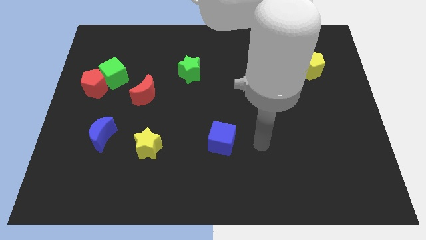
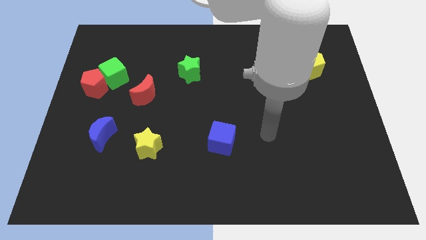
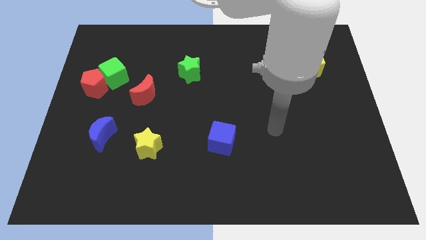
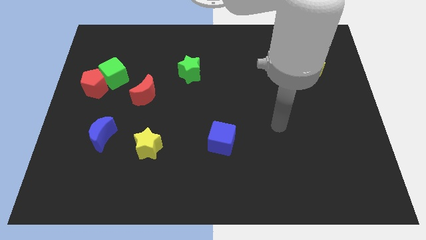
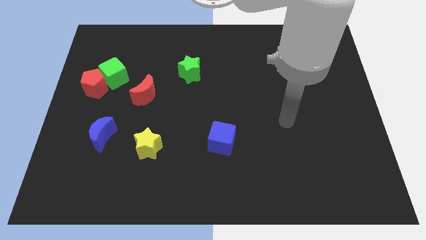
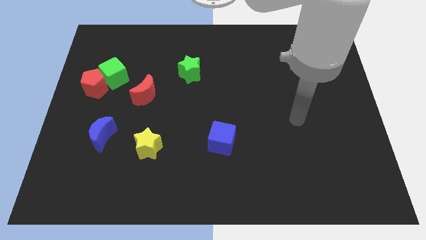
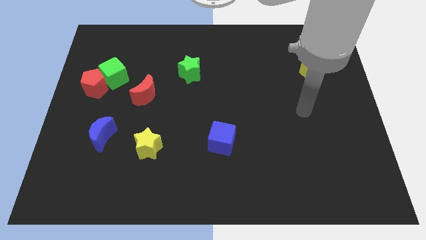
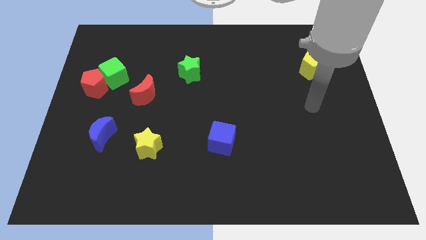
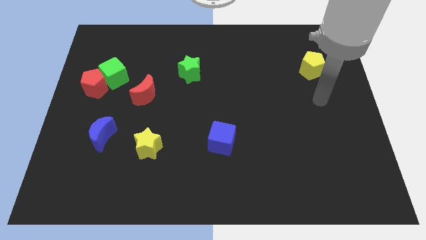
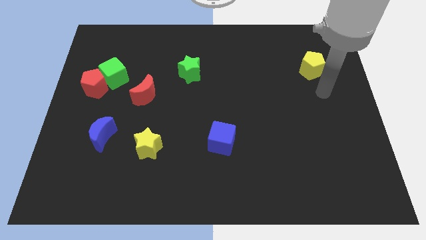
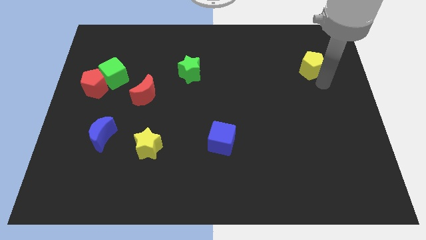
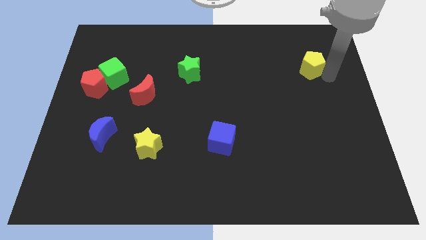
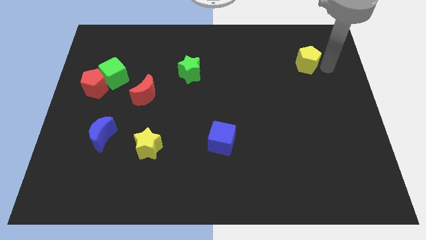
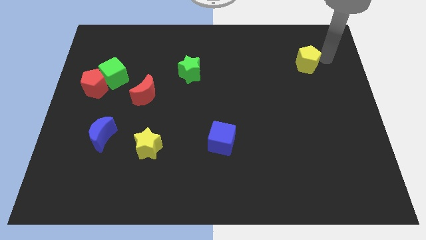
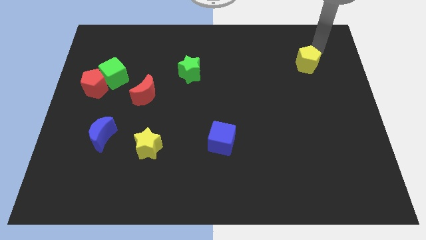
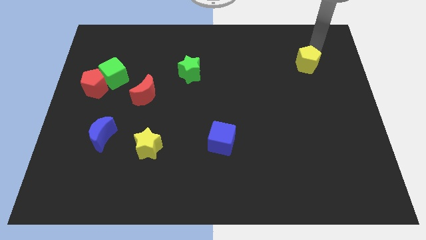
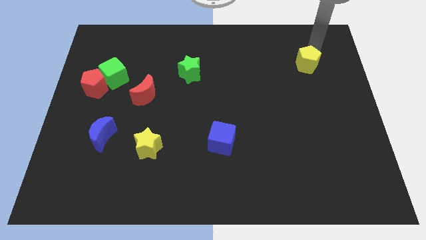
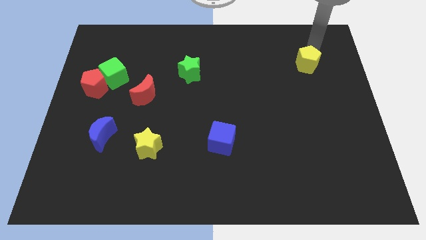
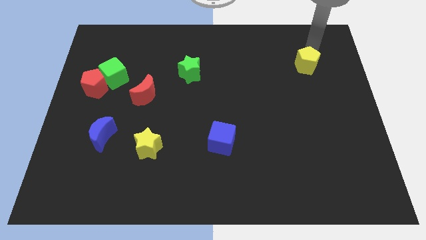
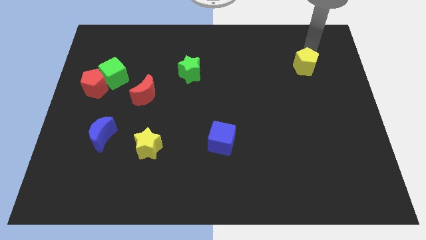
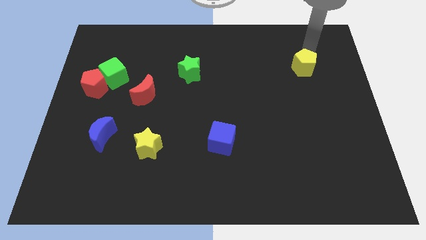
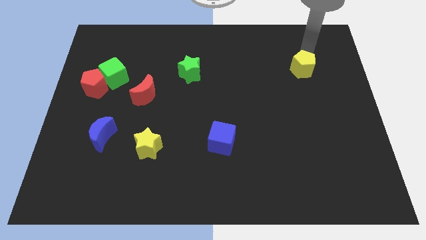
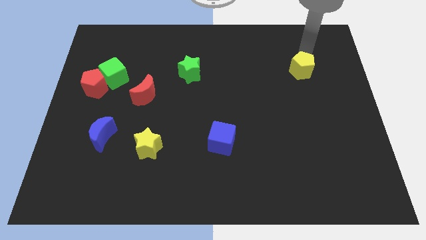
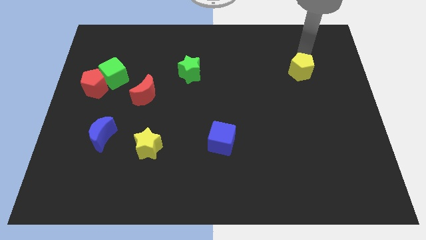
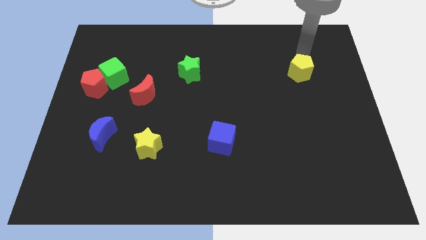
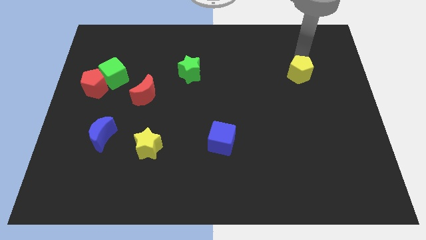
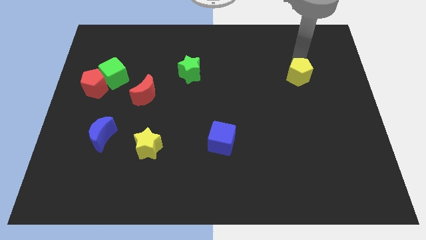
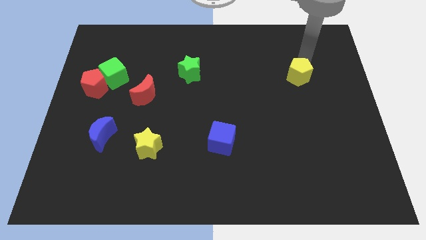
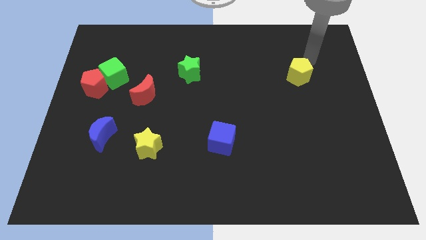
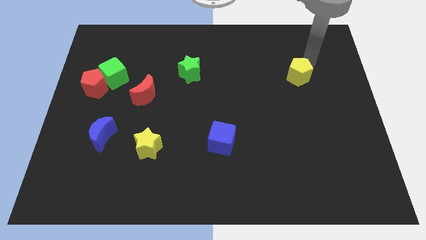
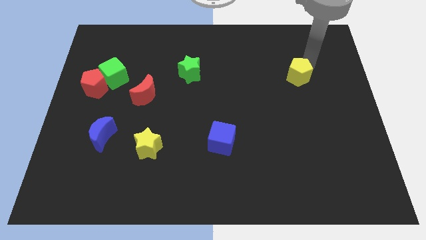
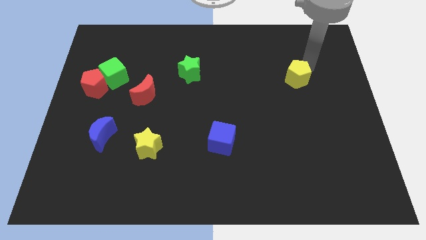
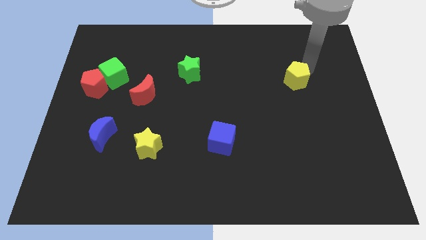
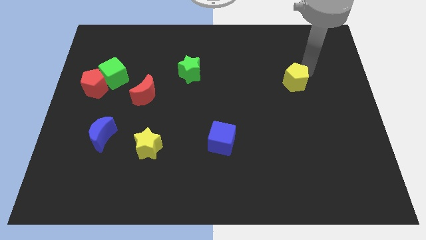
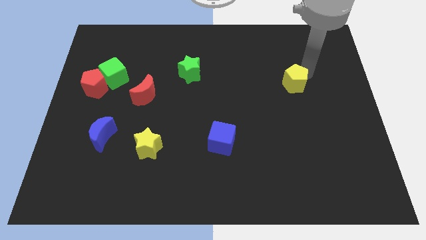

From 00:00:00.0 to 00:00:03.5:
slightly move the yellow pentagon diagonally down and left

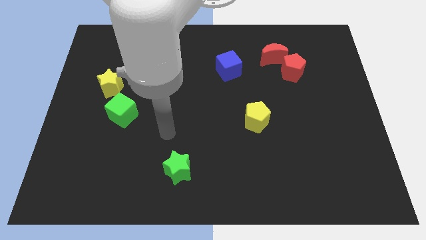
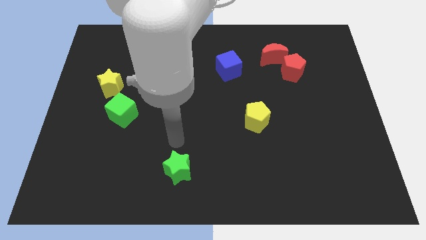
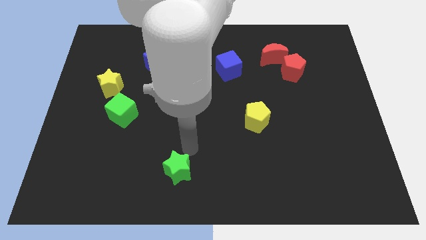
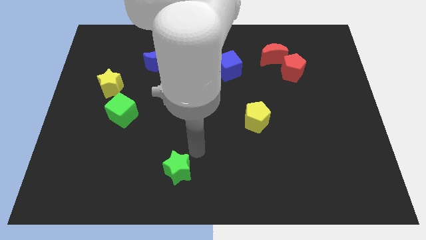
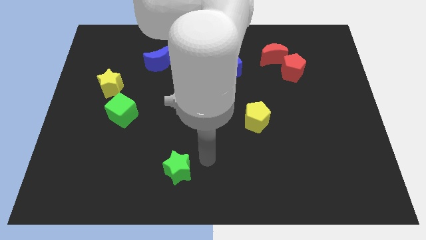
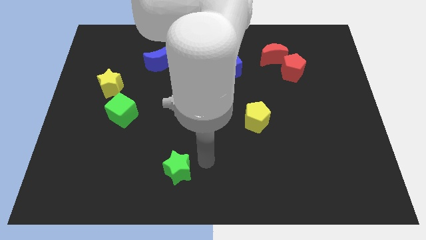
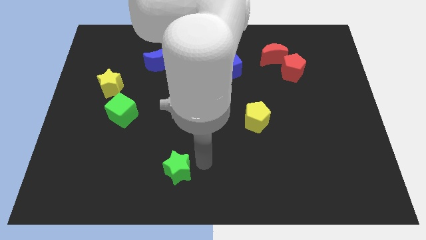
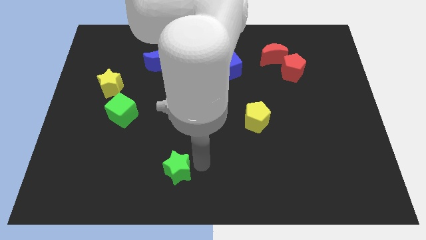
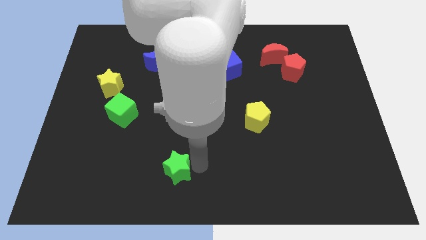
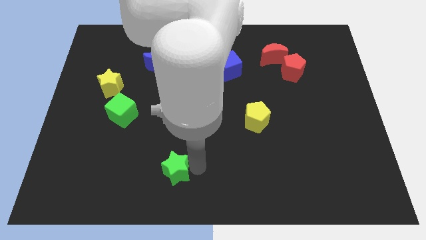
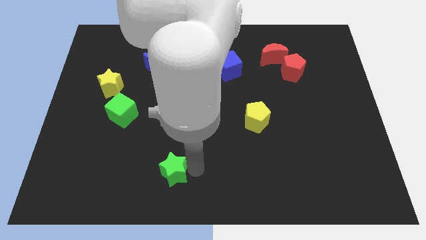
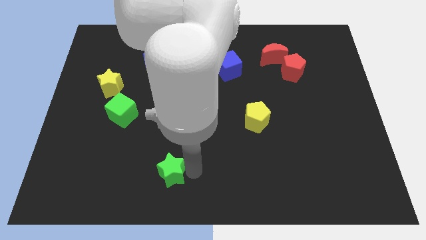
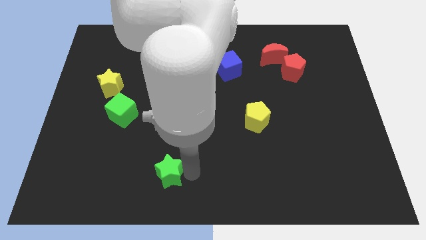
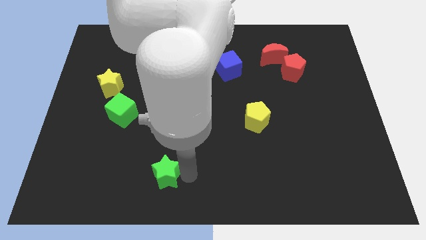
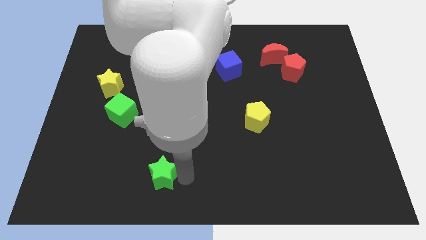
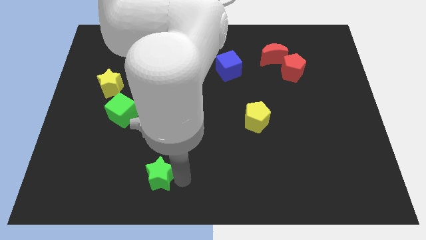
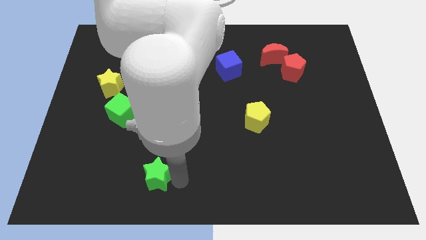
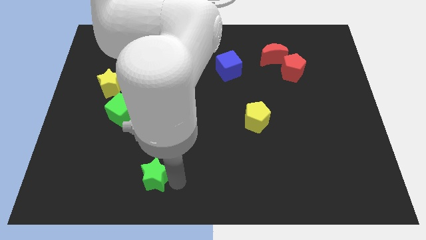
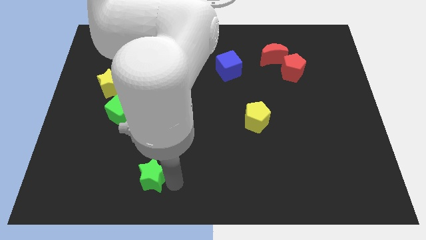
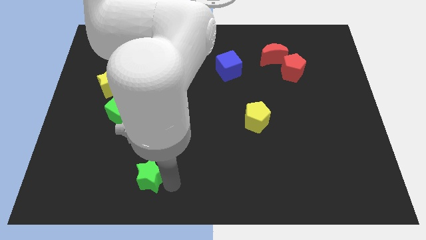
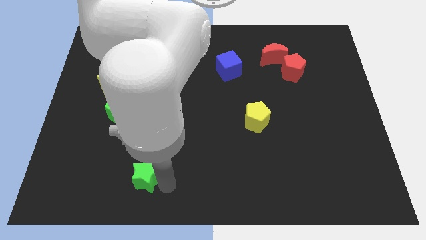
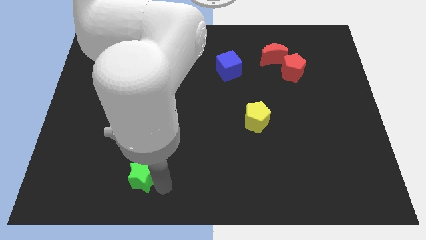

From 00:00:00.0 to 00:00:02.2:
slide the green star a bit to the left

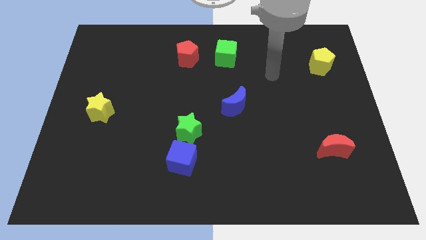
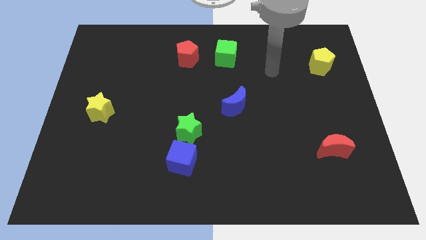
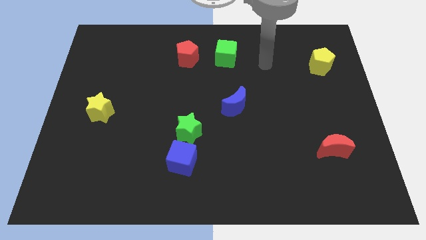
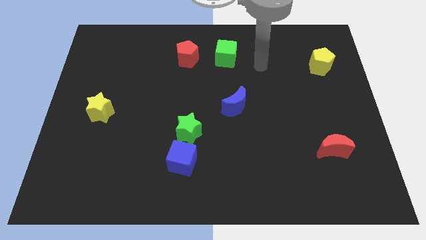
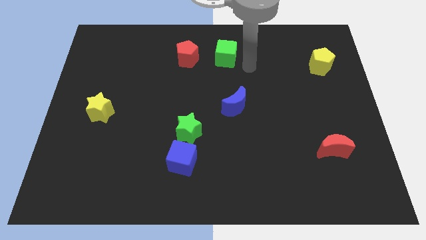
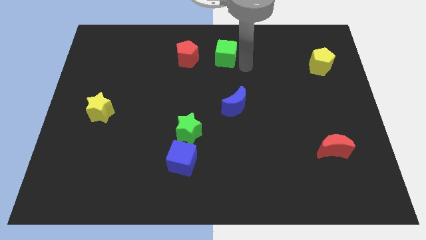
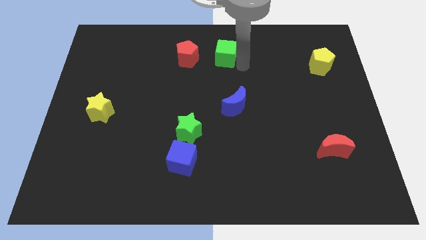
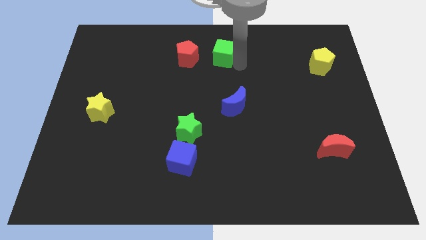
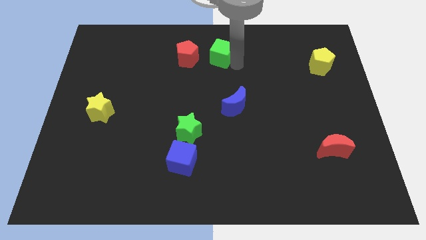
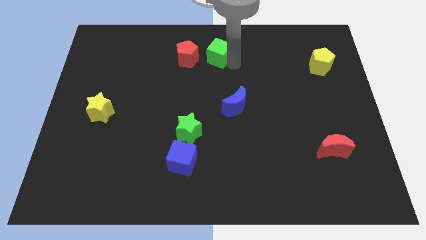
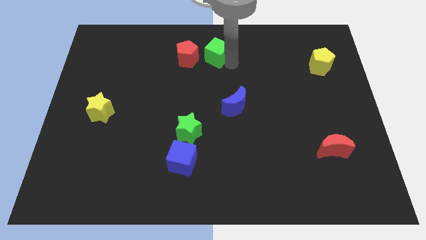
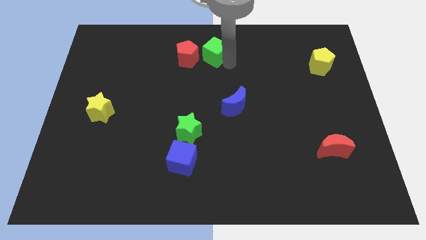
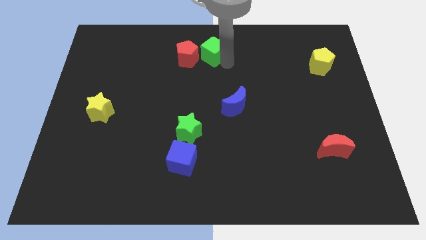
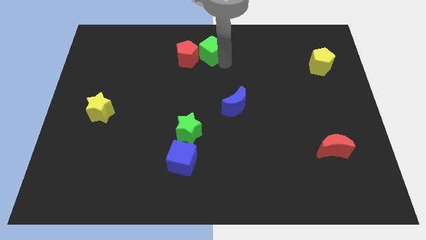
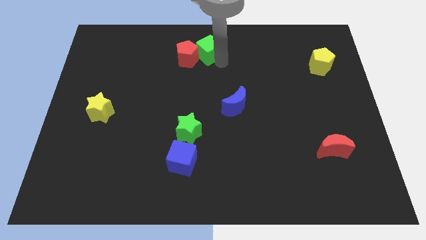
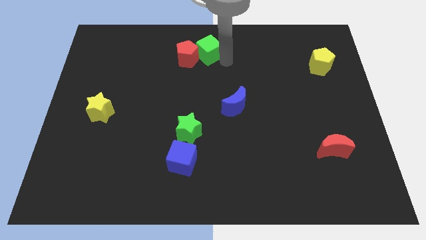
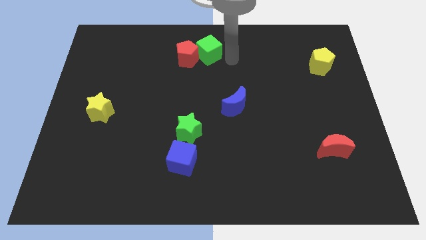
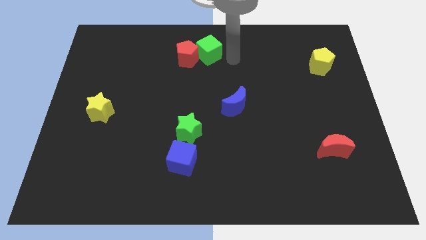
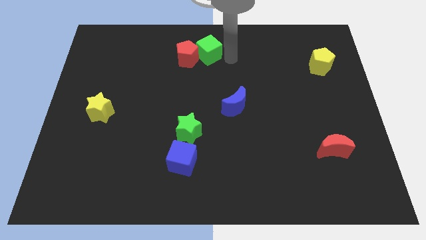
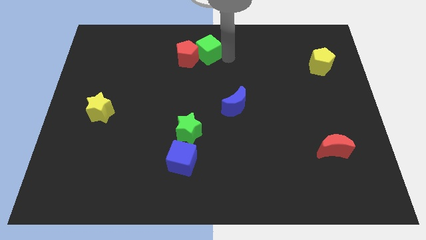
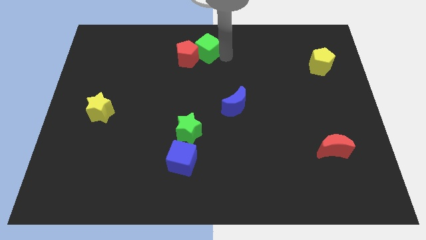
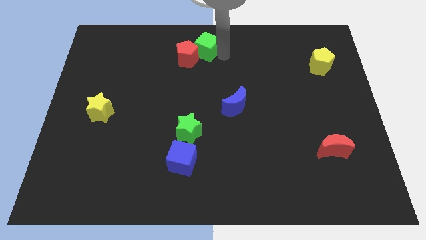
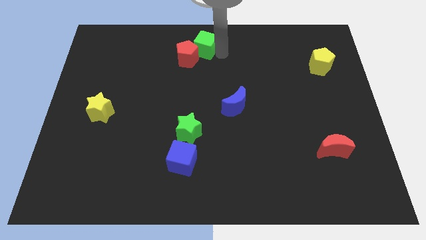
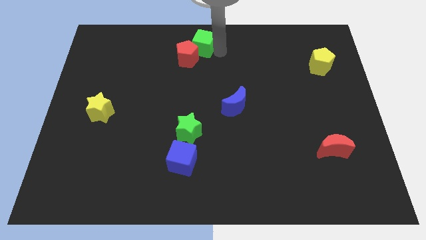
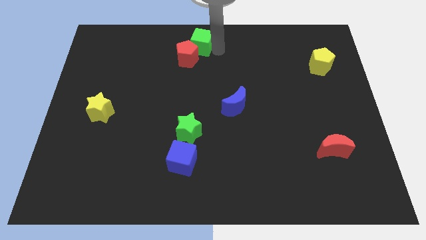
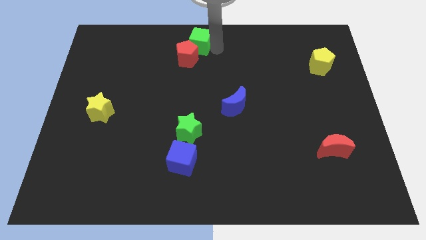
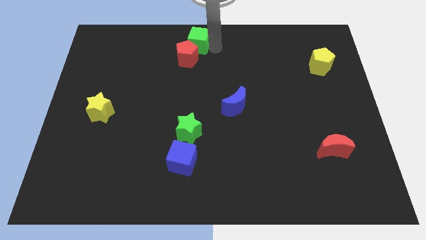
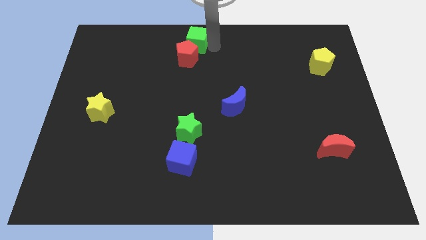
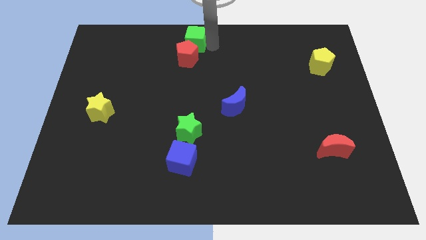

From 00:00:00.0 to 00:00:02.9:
slightly slide the green cube to the left
